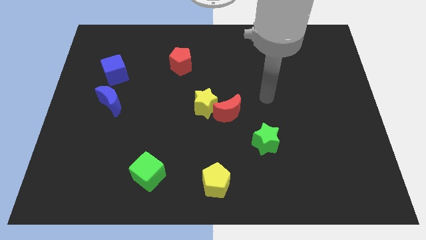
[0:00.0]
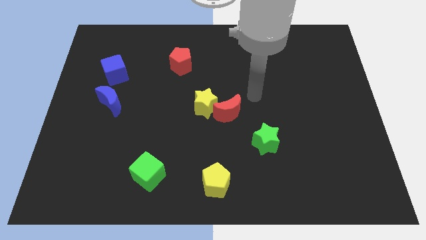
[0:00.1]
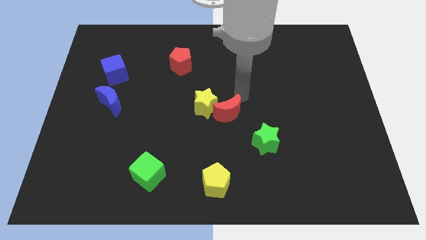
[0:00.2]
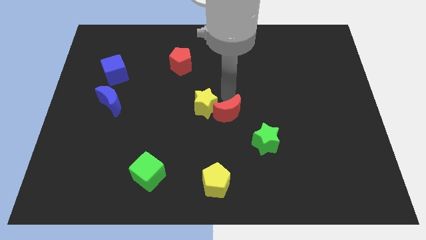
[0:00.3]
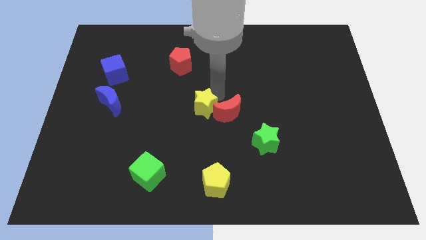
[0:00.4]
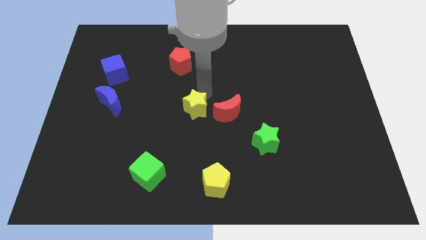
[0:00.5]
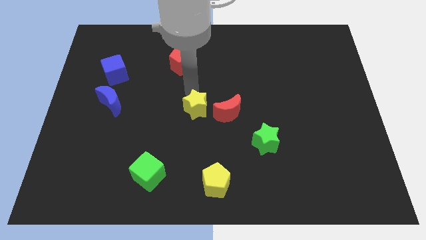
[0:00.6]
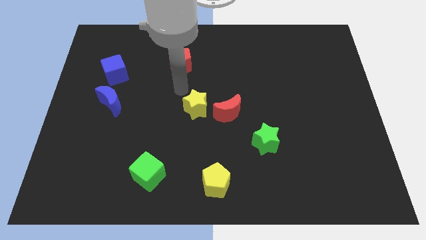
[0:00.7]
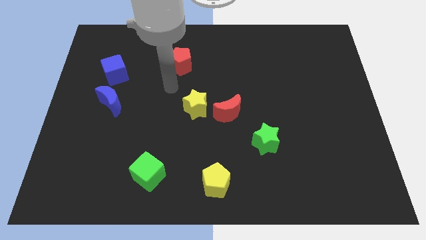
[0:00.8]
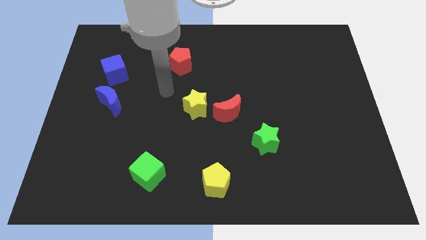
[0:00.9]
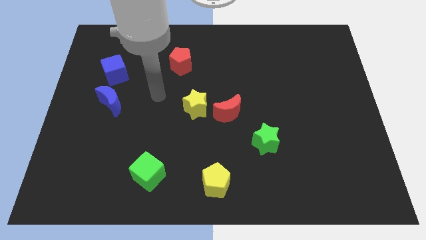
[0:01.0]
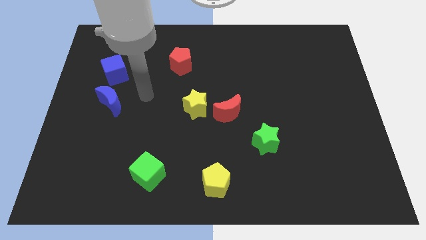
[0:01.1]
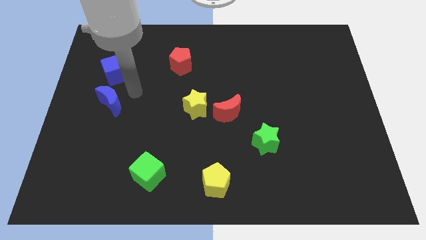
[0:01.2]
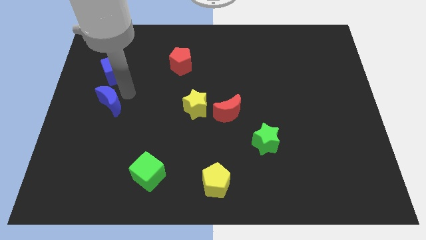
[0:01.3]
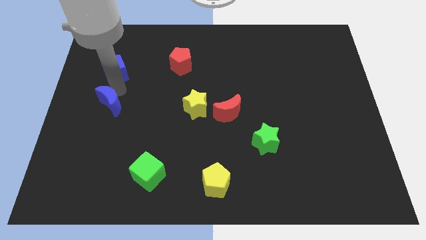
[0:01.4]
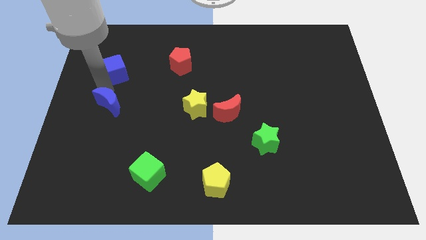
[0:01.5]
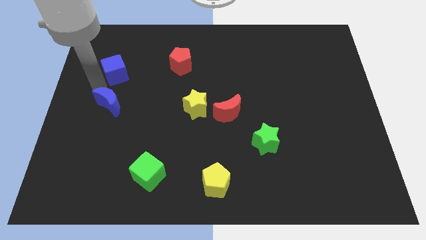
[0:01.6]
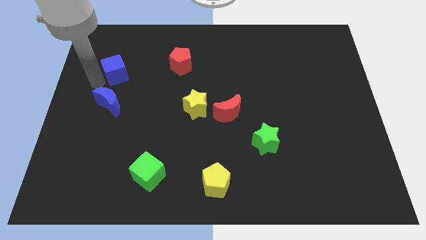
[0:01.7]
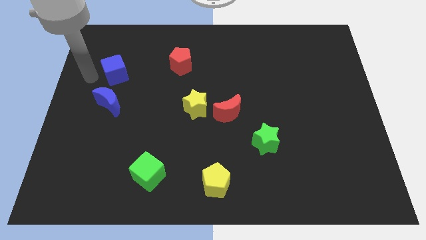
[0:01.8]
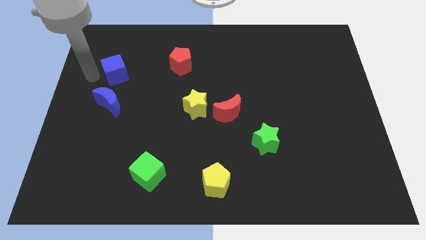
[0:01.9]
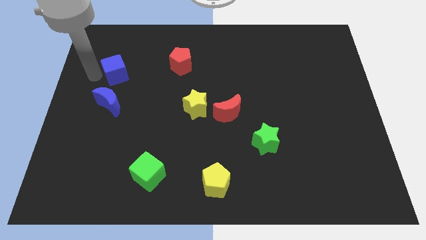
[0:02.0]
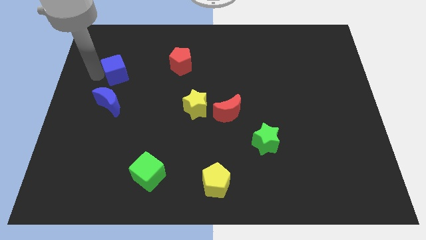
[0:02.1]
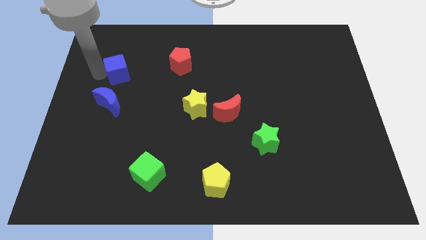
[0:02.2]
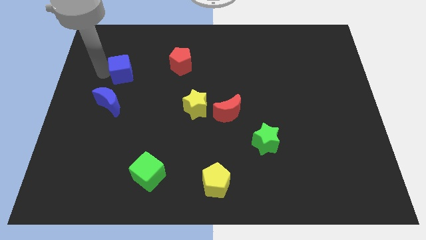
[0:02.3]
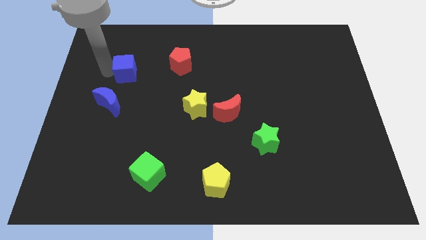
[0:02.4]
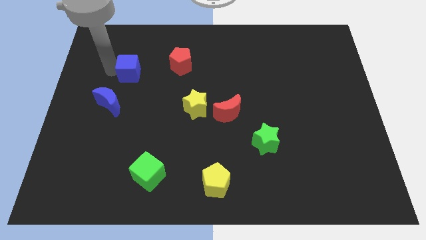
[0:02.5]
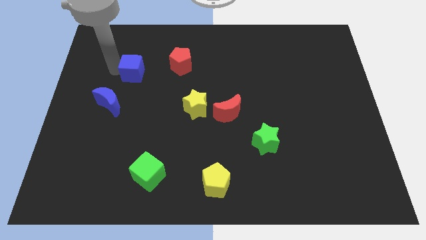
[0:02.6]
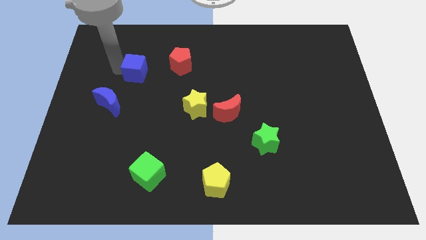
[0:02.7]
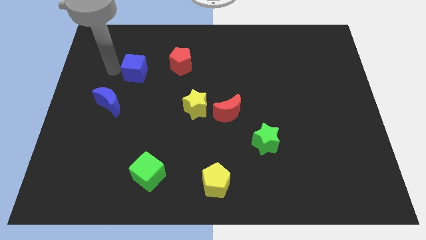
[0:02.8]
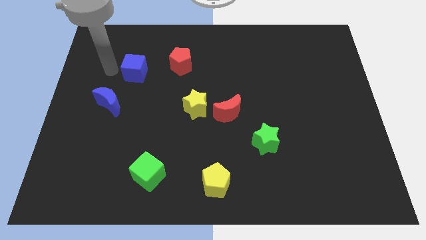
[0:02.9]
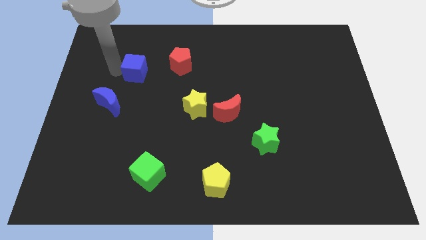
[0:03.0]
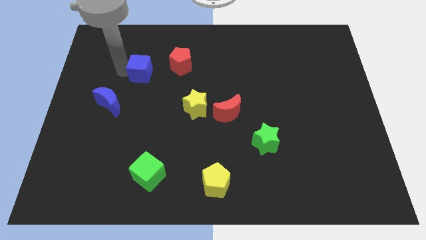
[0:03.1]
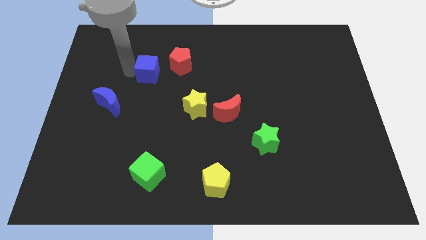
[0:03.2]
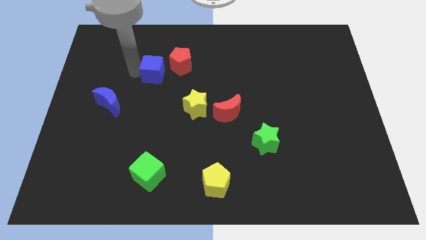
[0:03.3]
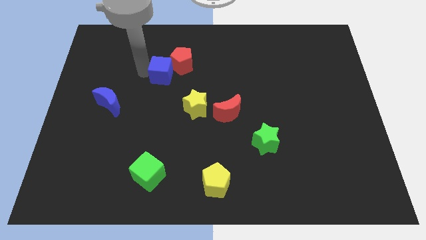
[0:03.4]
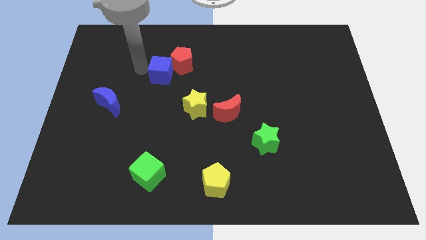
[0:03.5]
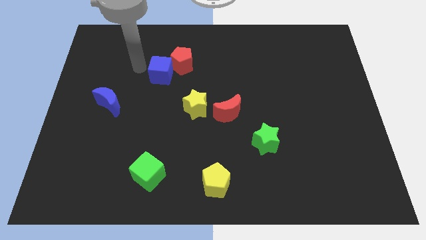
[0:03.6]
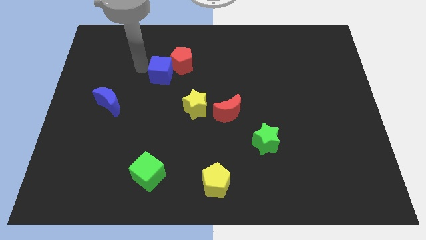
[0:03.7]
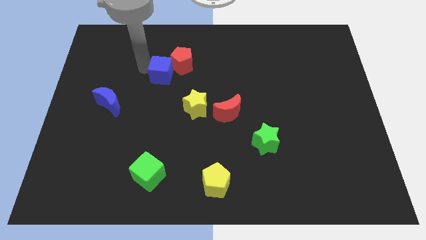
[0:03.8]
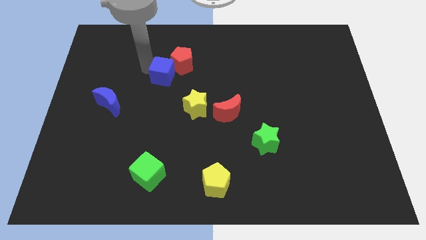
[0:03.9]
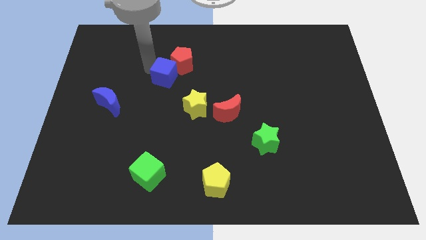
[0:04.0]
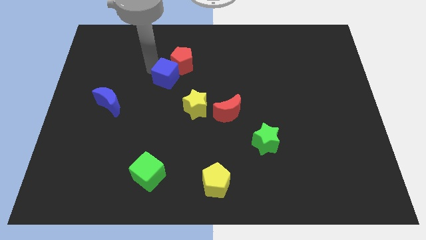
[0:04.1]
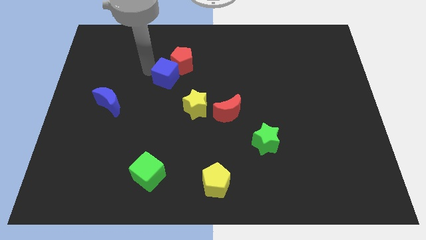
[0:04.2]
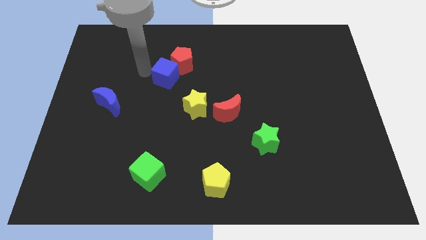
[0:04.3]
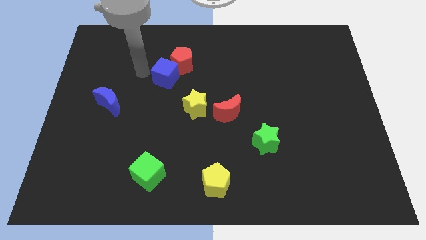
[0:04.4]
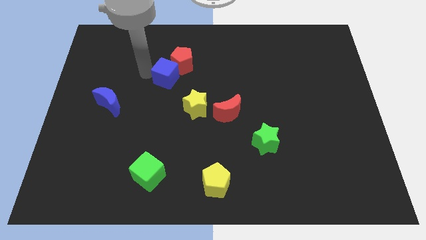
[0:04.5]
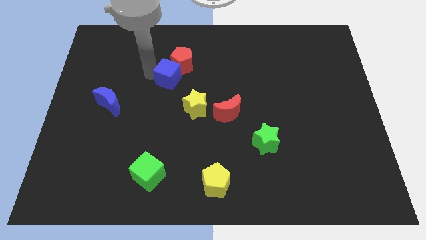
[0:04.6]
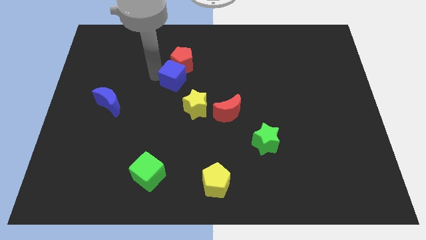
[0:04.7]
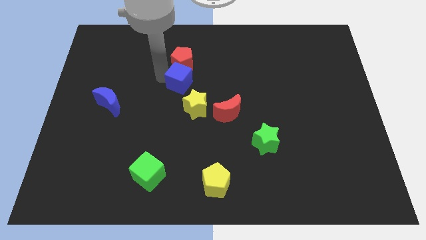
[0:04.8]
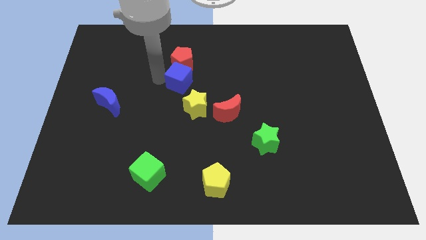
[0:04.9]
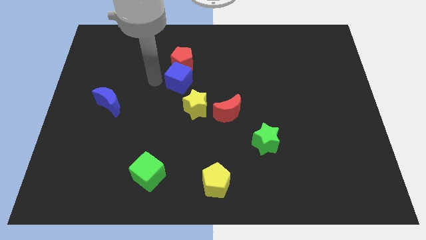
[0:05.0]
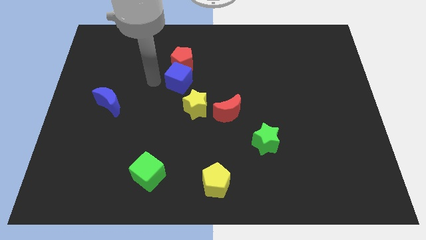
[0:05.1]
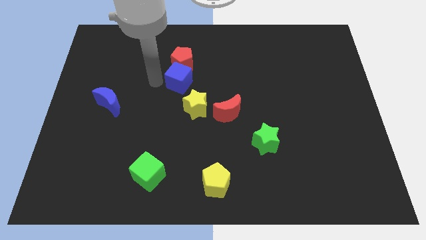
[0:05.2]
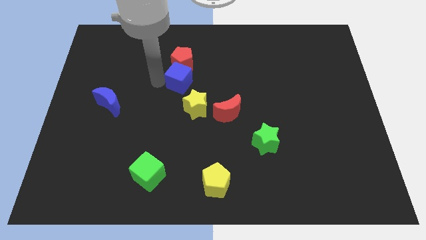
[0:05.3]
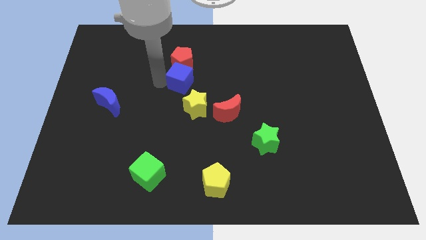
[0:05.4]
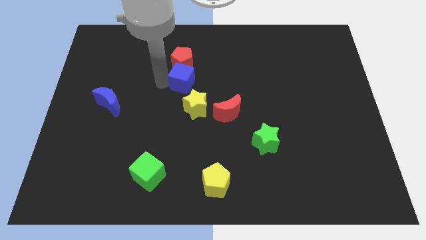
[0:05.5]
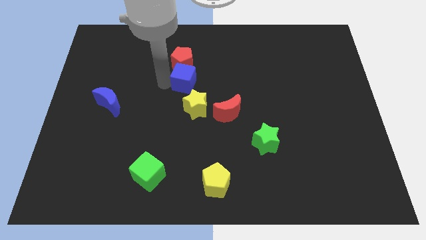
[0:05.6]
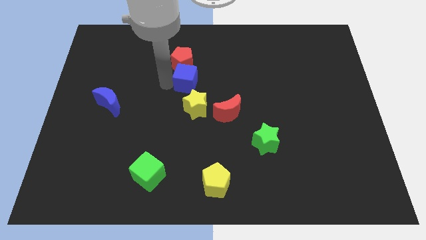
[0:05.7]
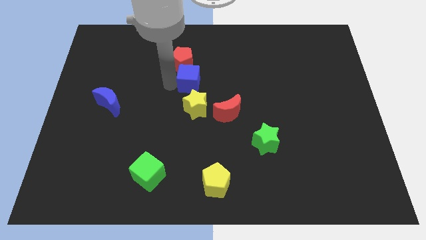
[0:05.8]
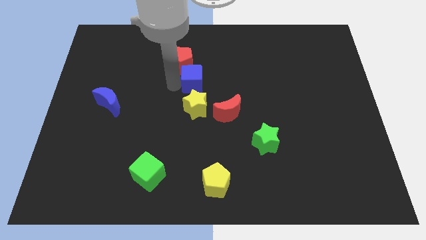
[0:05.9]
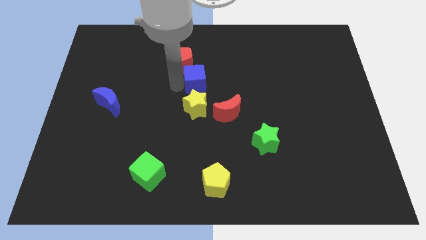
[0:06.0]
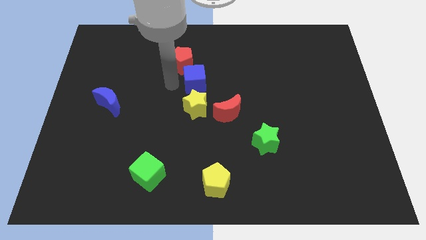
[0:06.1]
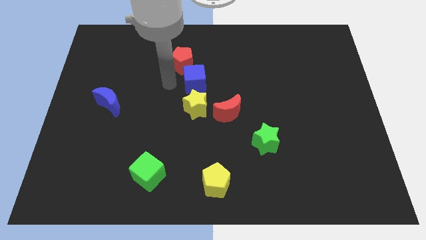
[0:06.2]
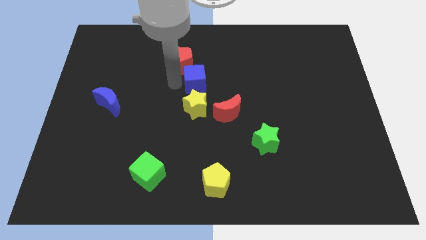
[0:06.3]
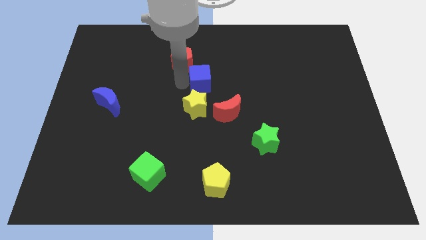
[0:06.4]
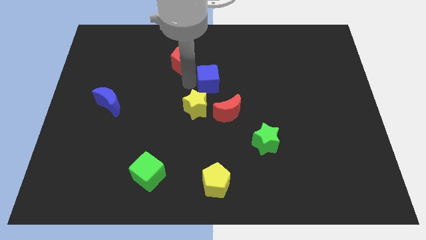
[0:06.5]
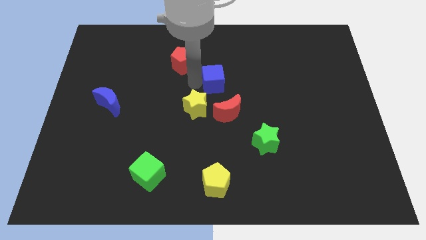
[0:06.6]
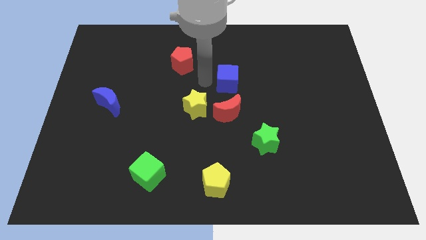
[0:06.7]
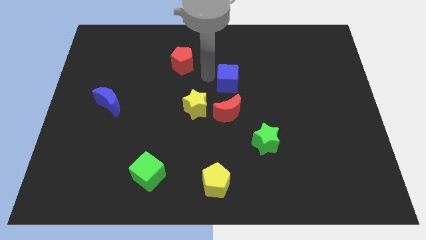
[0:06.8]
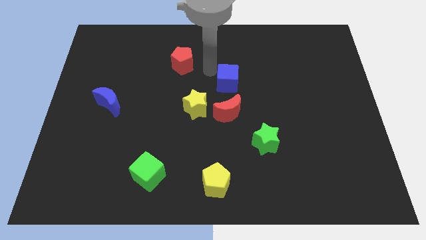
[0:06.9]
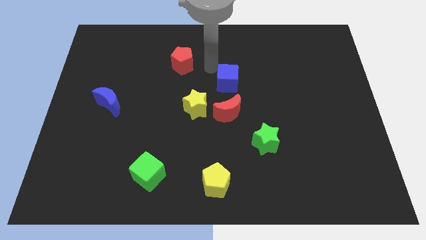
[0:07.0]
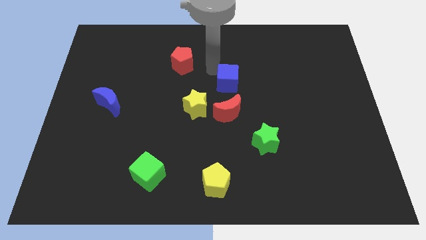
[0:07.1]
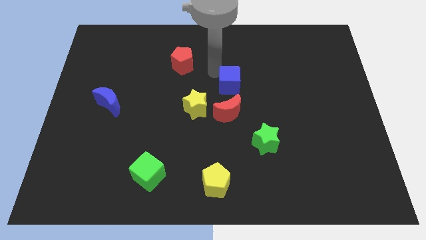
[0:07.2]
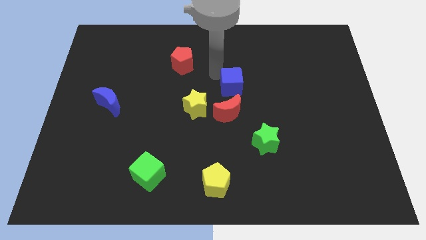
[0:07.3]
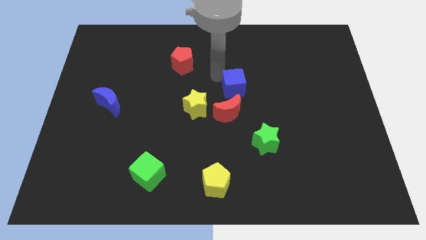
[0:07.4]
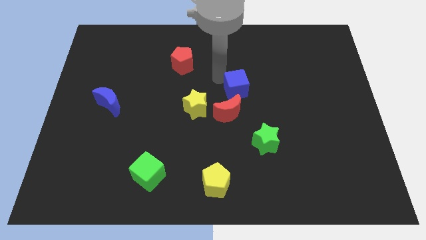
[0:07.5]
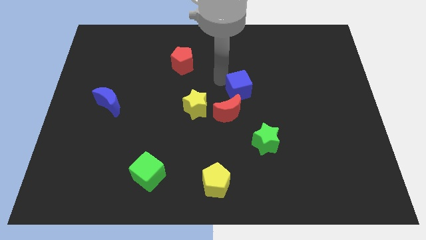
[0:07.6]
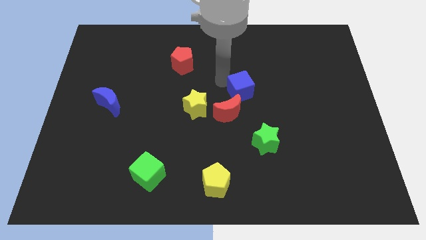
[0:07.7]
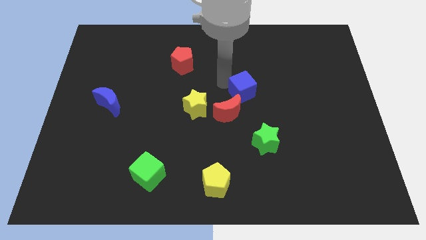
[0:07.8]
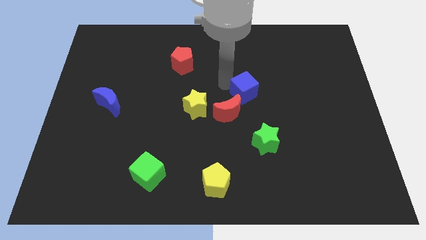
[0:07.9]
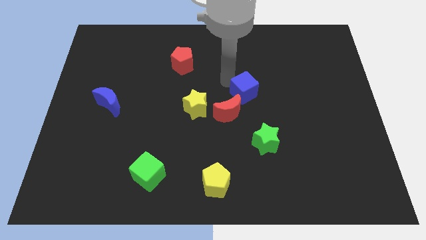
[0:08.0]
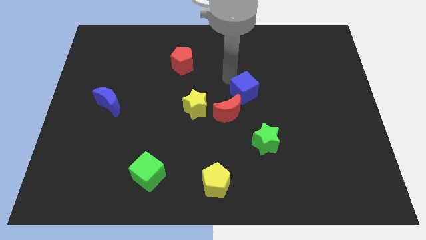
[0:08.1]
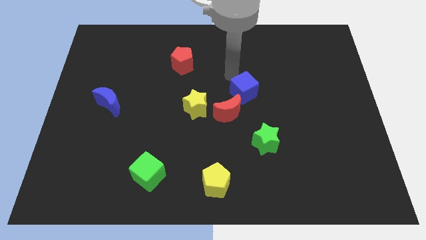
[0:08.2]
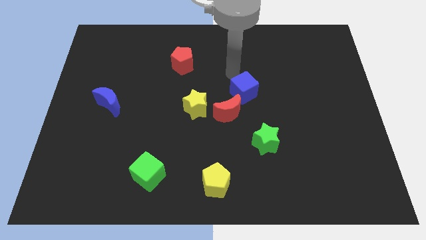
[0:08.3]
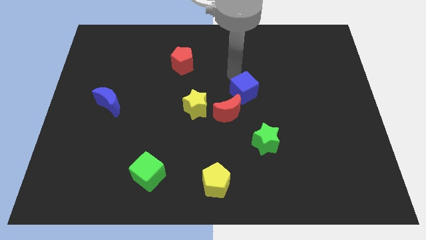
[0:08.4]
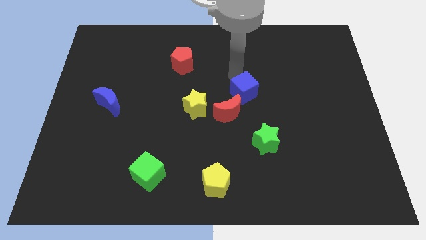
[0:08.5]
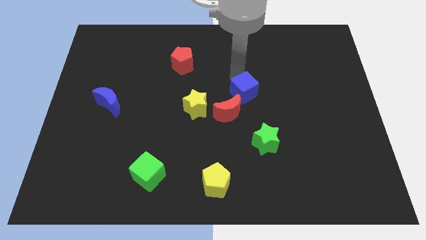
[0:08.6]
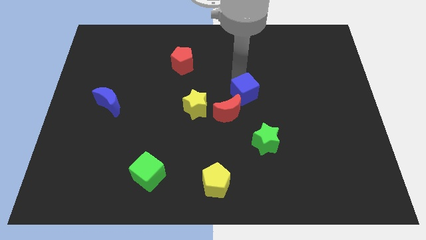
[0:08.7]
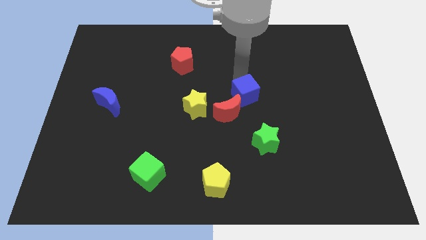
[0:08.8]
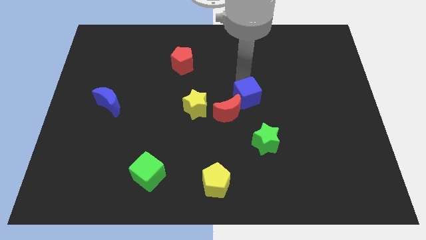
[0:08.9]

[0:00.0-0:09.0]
slide the blue cube to the right side of the red moon
